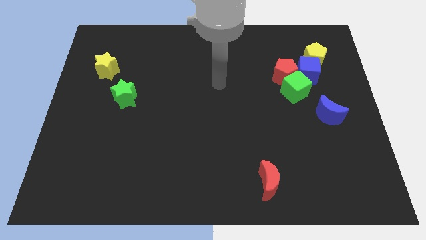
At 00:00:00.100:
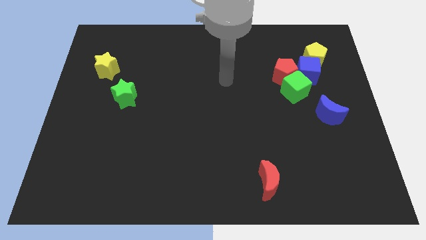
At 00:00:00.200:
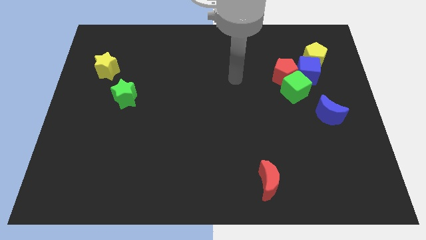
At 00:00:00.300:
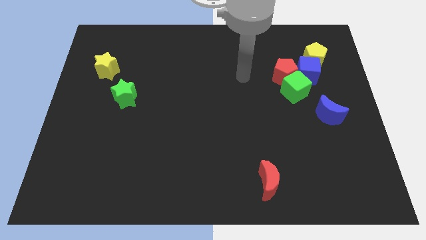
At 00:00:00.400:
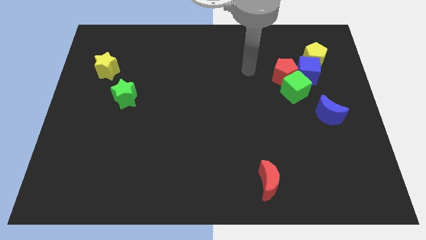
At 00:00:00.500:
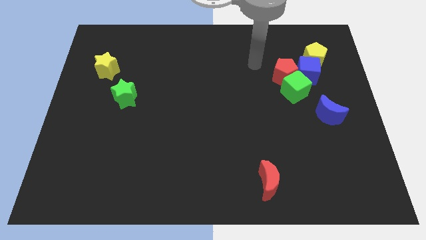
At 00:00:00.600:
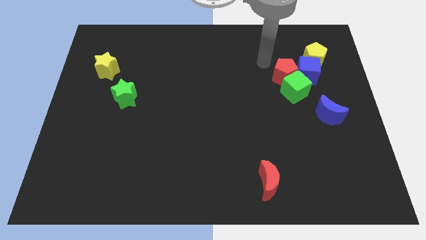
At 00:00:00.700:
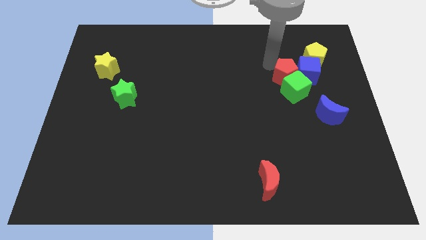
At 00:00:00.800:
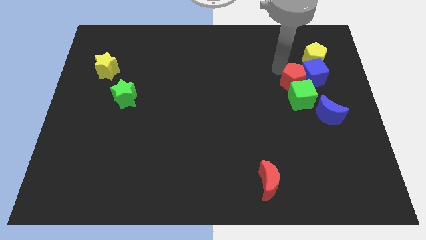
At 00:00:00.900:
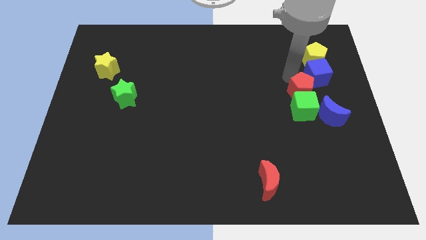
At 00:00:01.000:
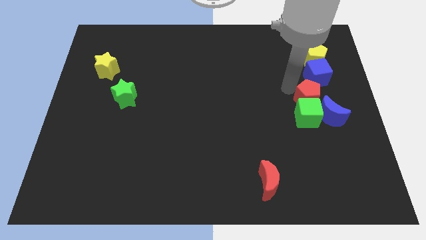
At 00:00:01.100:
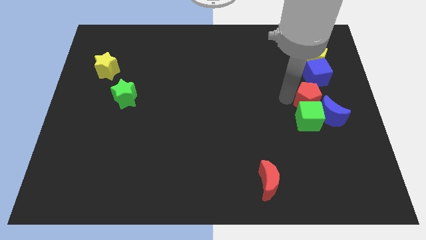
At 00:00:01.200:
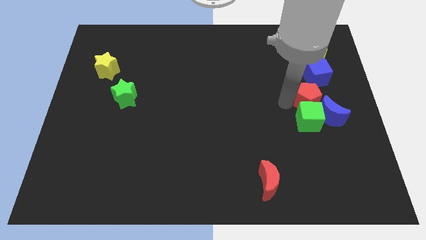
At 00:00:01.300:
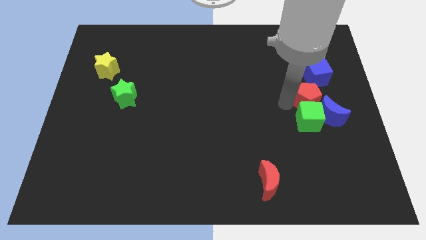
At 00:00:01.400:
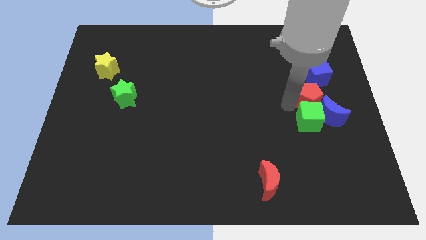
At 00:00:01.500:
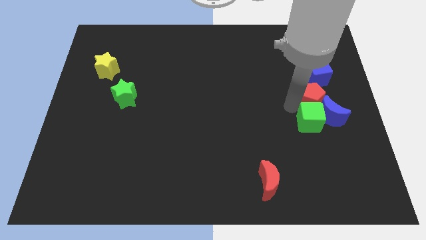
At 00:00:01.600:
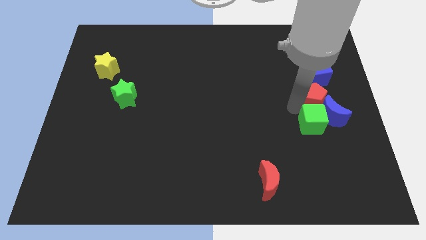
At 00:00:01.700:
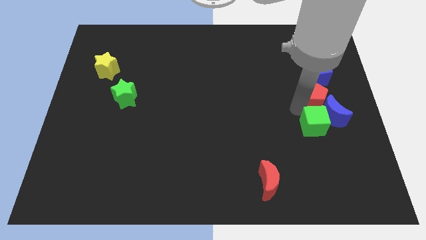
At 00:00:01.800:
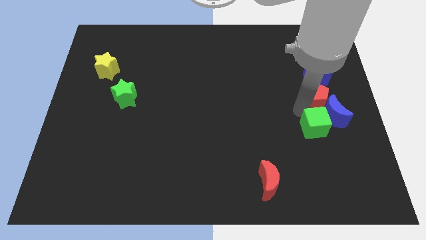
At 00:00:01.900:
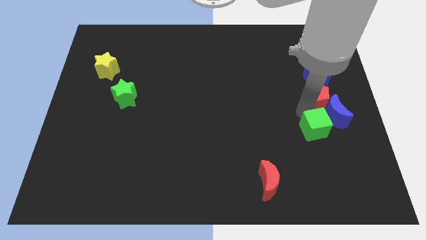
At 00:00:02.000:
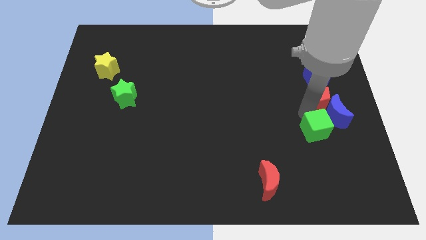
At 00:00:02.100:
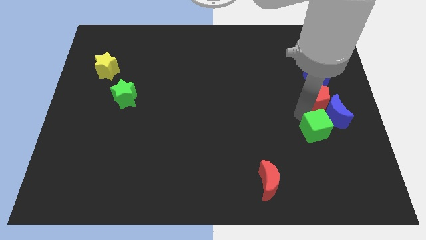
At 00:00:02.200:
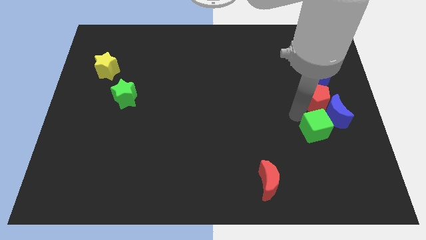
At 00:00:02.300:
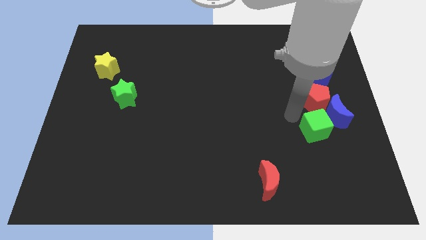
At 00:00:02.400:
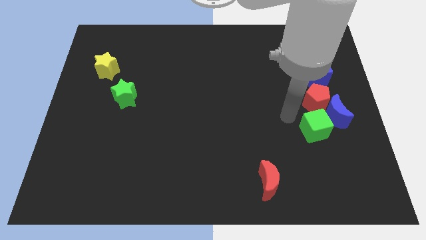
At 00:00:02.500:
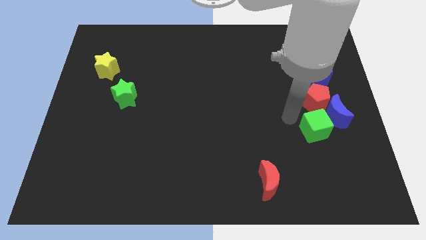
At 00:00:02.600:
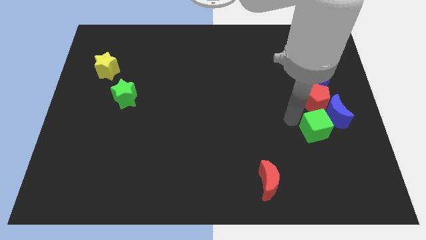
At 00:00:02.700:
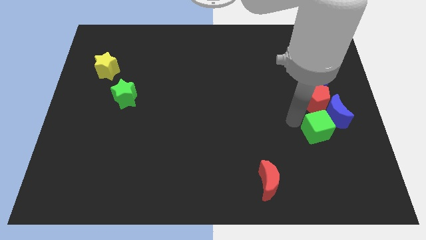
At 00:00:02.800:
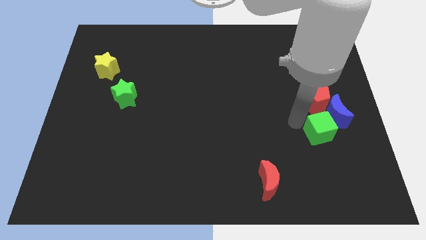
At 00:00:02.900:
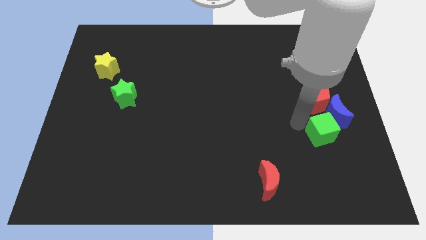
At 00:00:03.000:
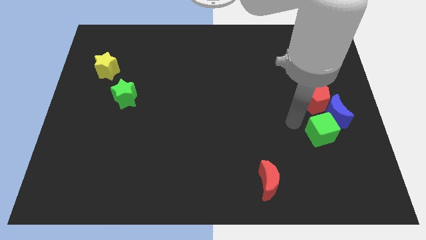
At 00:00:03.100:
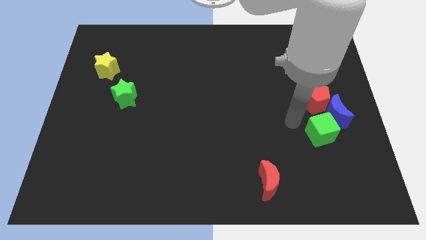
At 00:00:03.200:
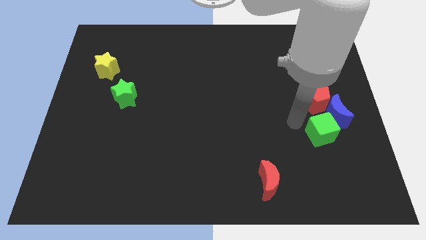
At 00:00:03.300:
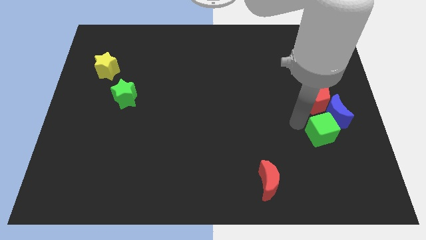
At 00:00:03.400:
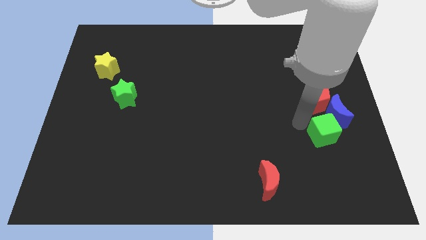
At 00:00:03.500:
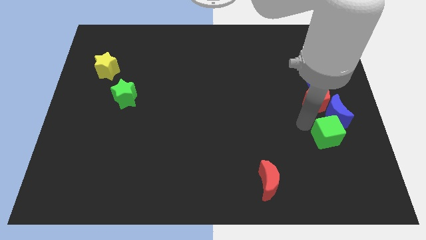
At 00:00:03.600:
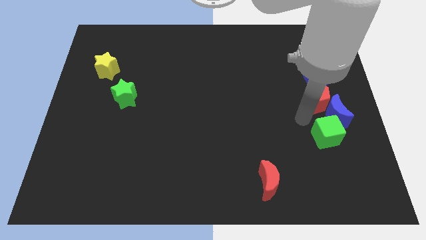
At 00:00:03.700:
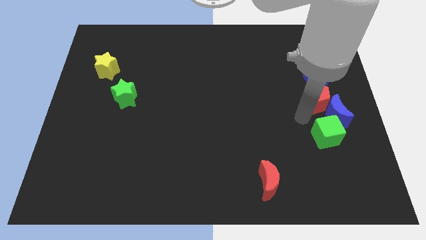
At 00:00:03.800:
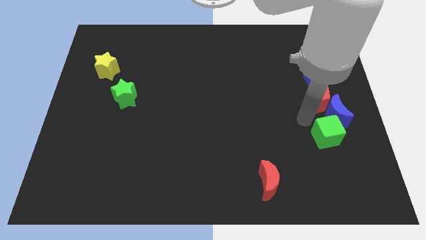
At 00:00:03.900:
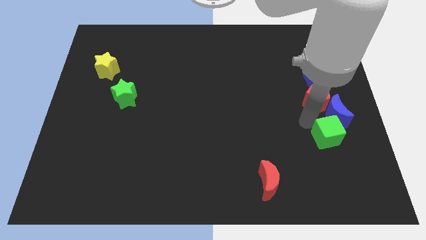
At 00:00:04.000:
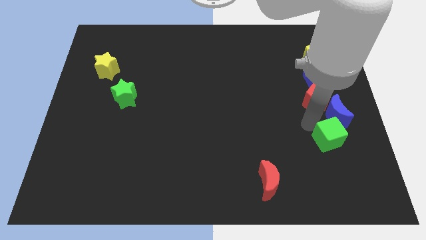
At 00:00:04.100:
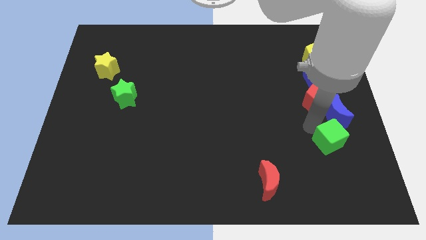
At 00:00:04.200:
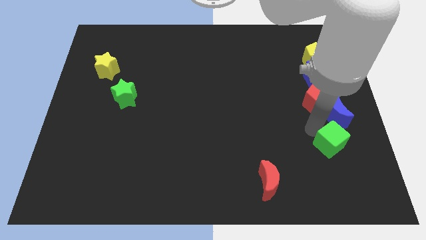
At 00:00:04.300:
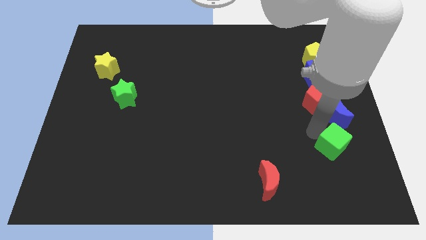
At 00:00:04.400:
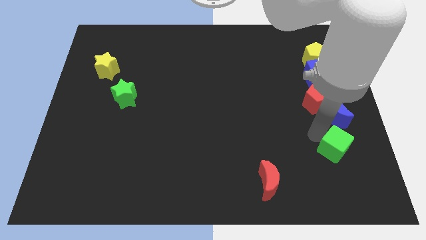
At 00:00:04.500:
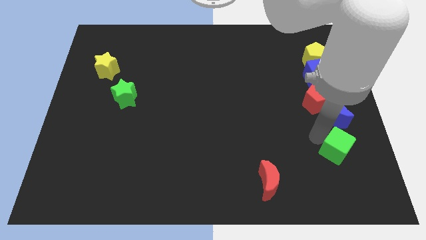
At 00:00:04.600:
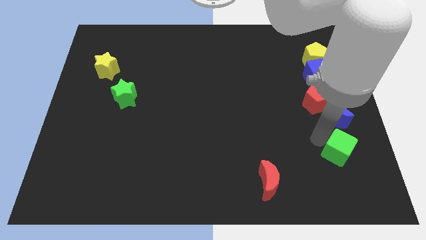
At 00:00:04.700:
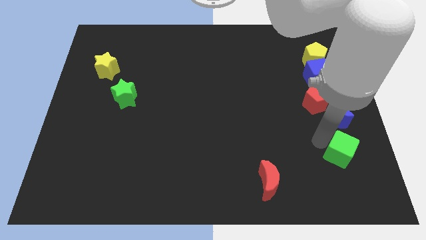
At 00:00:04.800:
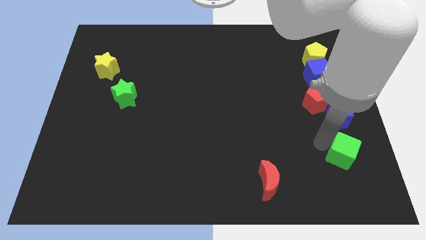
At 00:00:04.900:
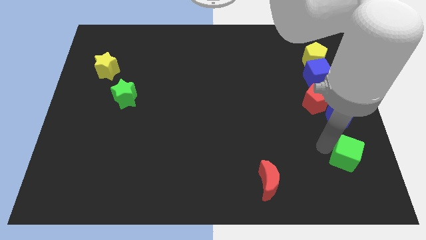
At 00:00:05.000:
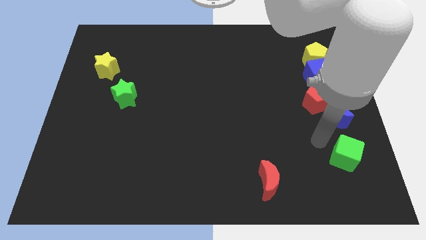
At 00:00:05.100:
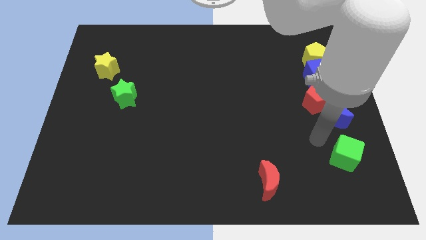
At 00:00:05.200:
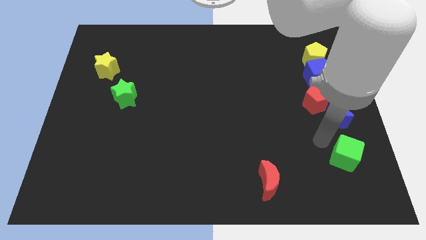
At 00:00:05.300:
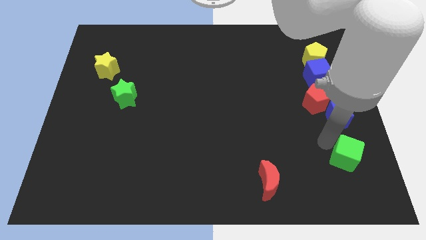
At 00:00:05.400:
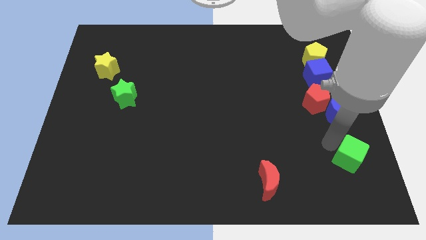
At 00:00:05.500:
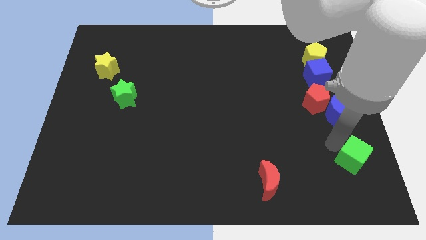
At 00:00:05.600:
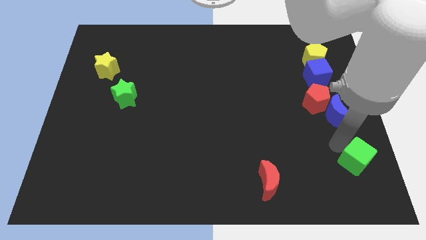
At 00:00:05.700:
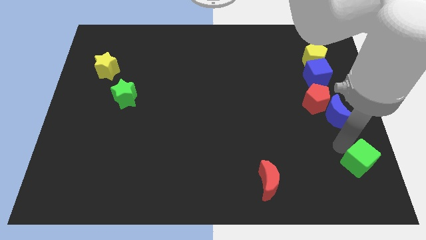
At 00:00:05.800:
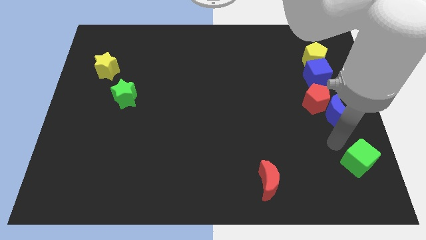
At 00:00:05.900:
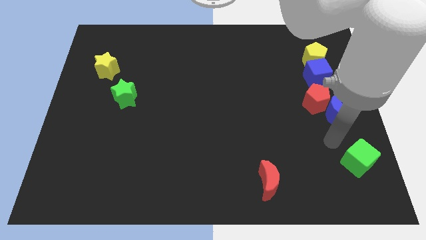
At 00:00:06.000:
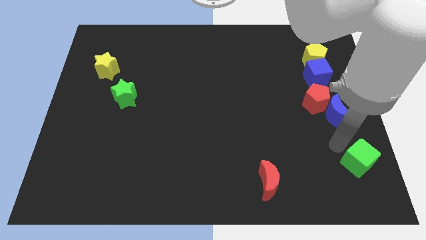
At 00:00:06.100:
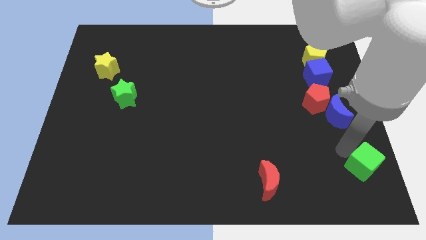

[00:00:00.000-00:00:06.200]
push the green cube to the bottom right

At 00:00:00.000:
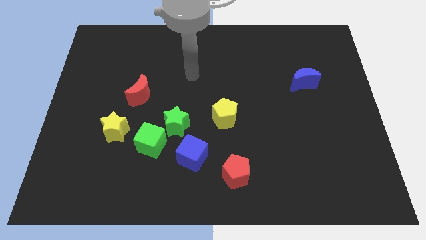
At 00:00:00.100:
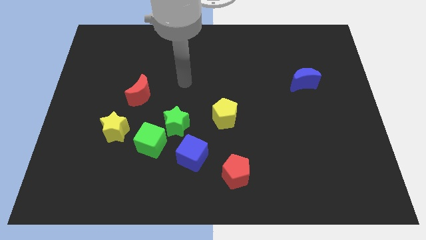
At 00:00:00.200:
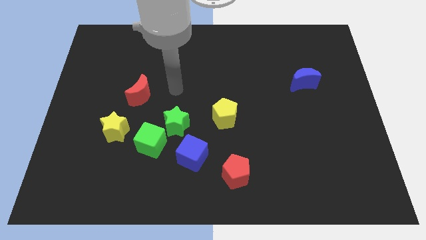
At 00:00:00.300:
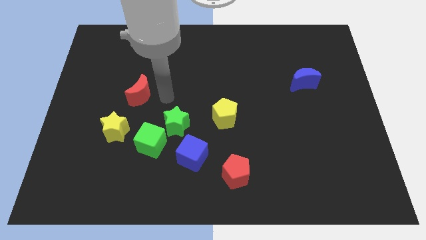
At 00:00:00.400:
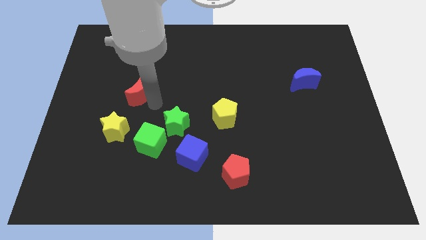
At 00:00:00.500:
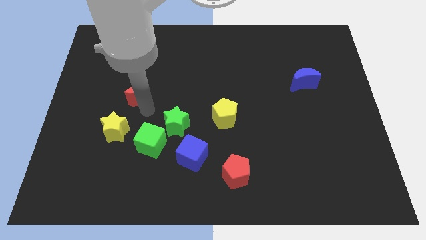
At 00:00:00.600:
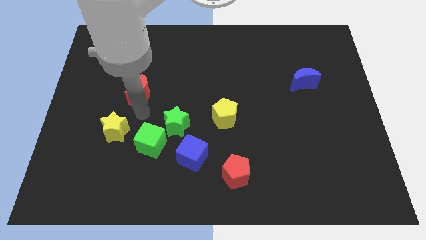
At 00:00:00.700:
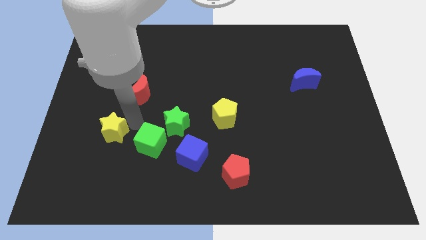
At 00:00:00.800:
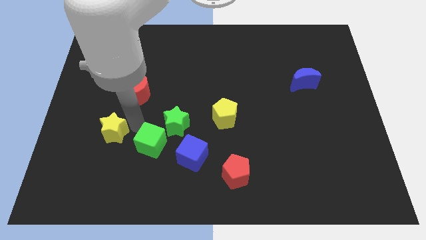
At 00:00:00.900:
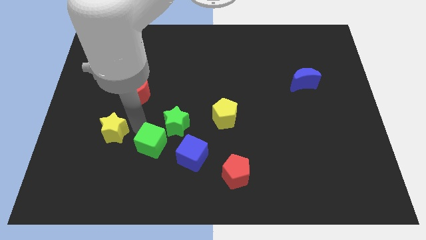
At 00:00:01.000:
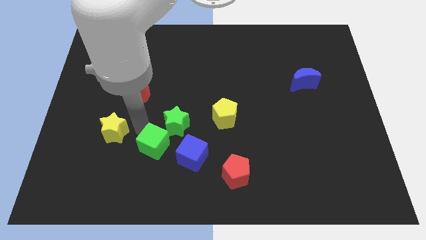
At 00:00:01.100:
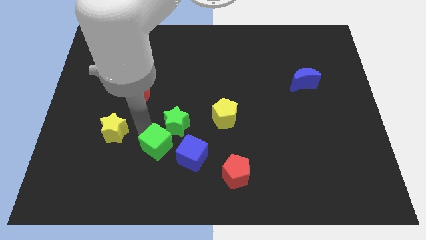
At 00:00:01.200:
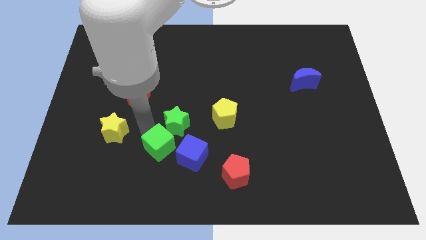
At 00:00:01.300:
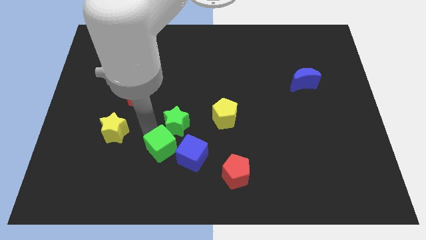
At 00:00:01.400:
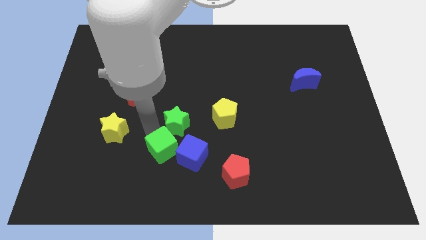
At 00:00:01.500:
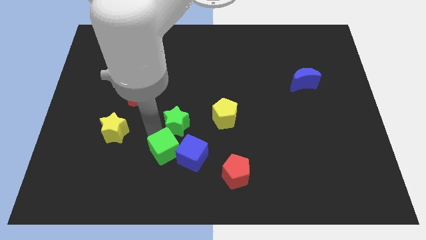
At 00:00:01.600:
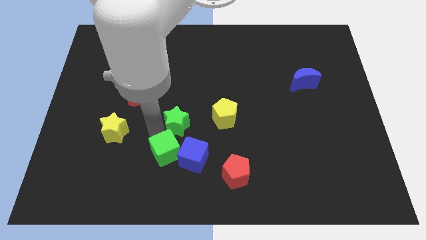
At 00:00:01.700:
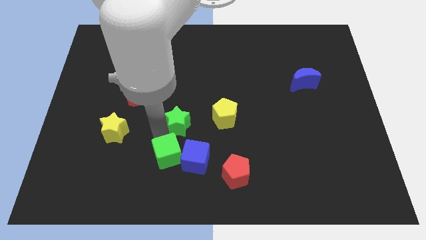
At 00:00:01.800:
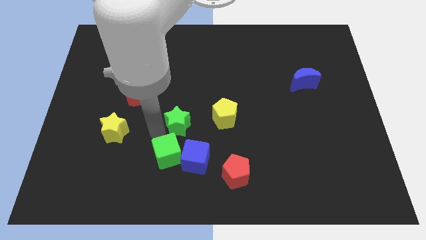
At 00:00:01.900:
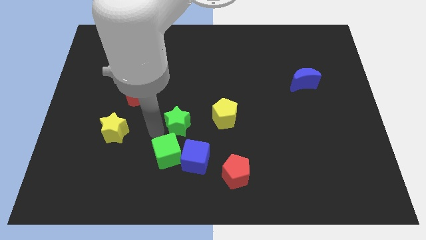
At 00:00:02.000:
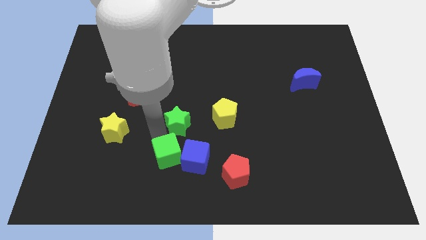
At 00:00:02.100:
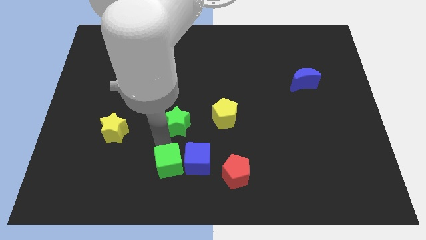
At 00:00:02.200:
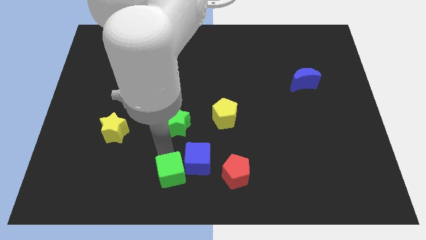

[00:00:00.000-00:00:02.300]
push the green cube to the bottom side
